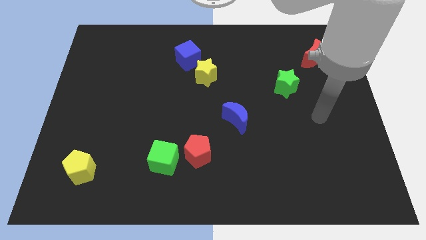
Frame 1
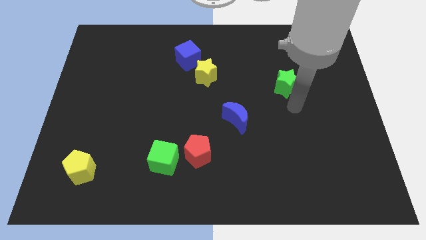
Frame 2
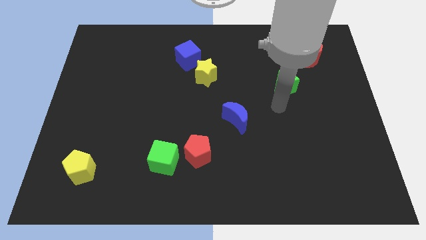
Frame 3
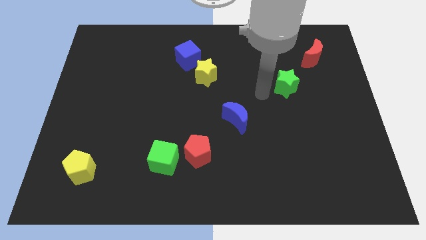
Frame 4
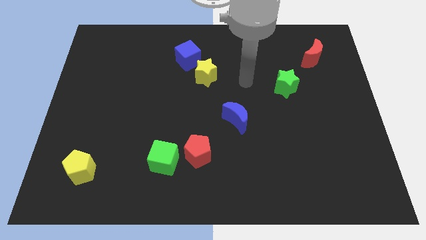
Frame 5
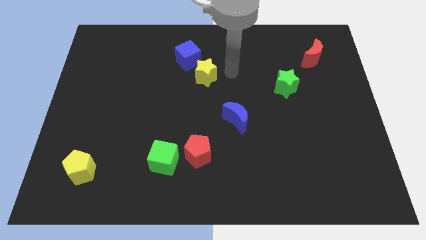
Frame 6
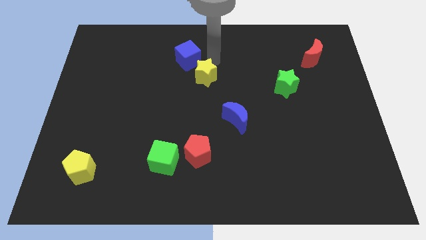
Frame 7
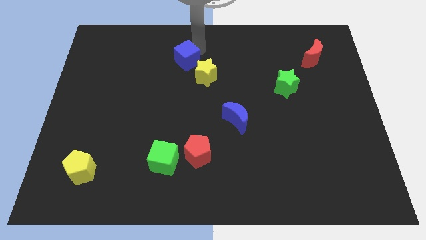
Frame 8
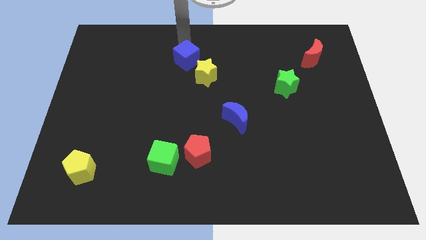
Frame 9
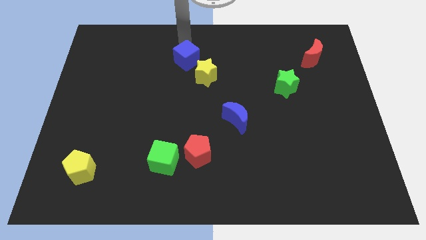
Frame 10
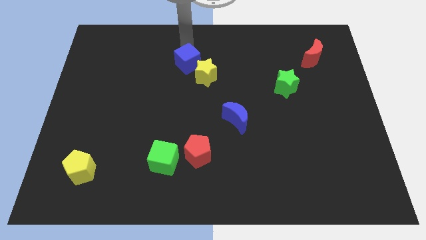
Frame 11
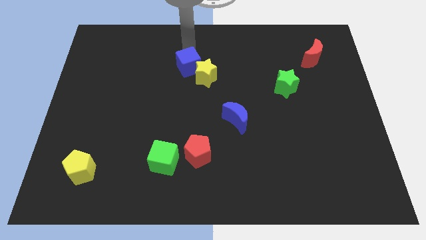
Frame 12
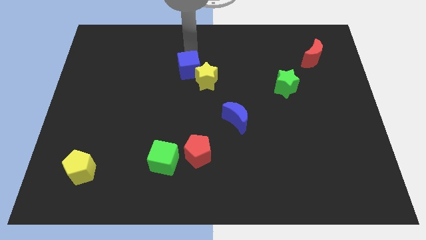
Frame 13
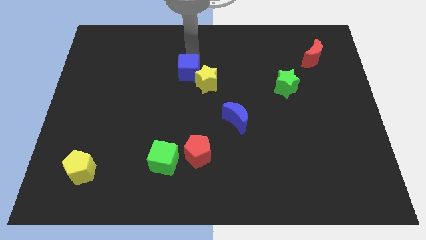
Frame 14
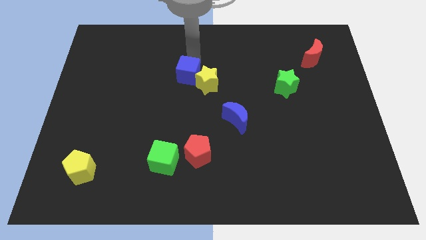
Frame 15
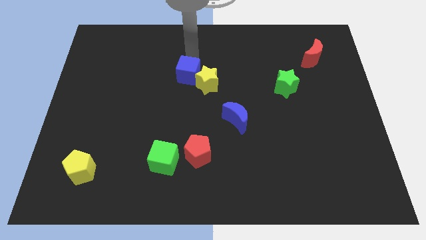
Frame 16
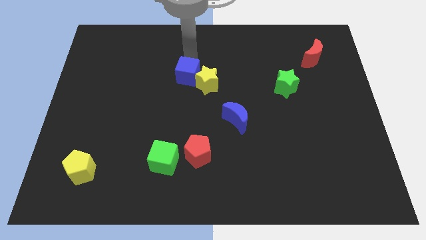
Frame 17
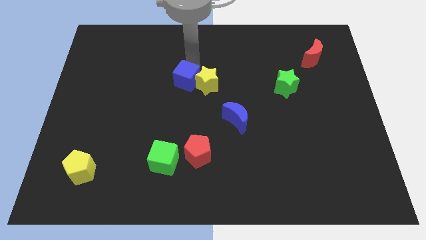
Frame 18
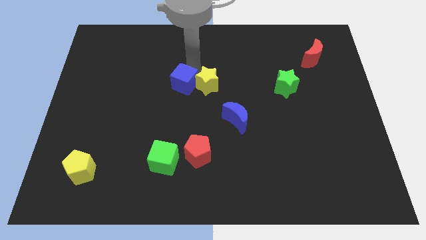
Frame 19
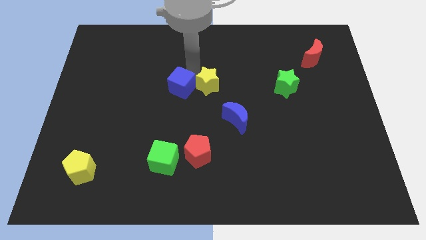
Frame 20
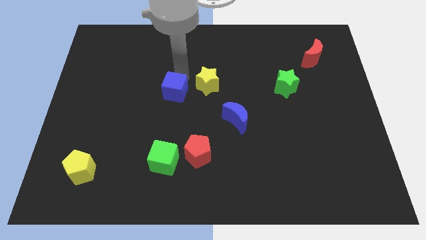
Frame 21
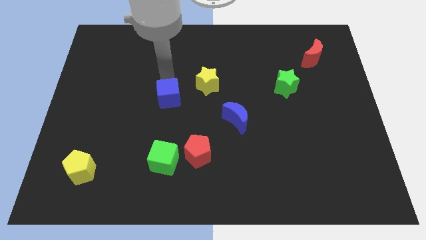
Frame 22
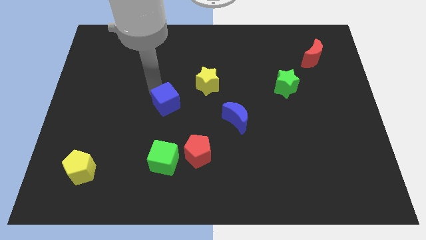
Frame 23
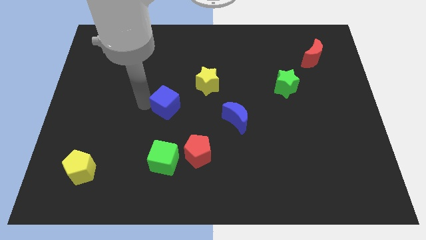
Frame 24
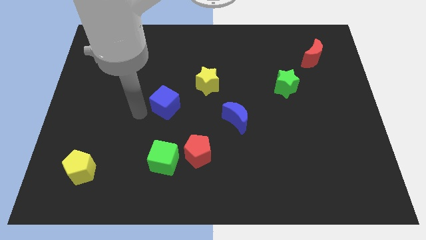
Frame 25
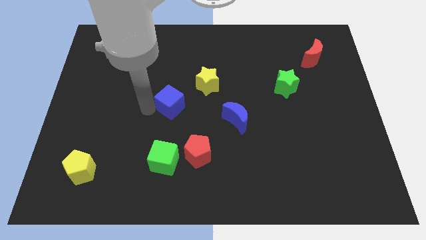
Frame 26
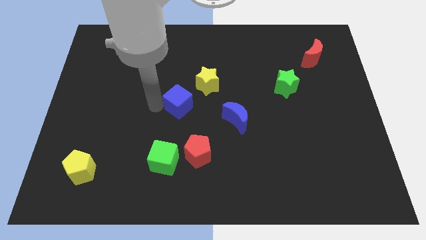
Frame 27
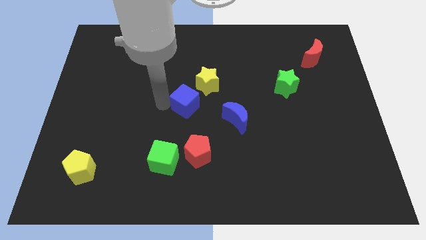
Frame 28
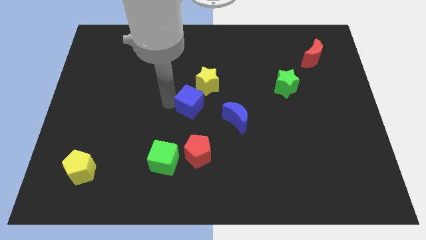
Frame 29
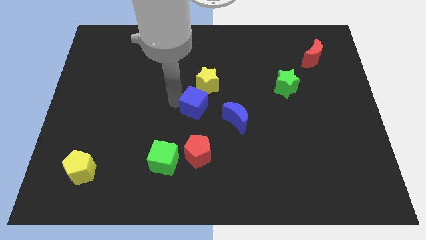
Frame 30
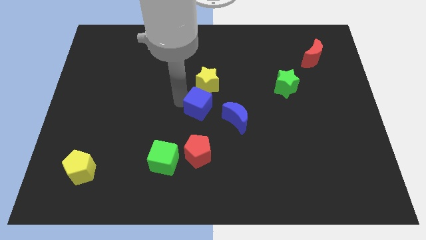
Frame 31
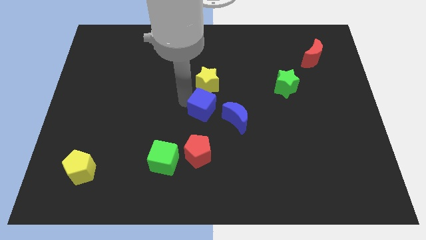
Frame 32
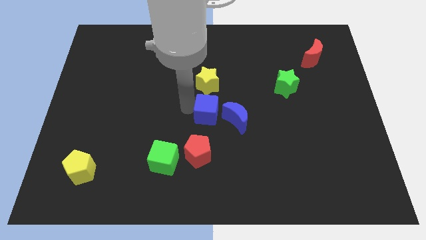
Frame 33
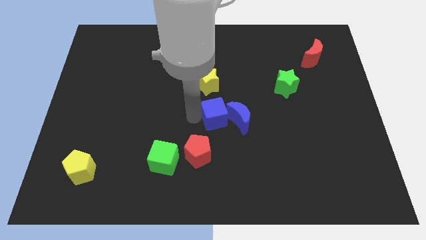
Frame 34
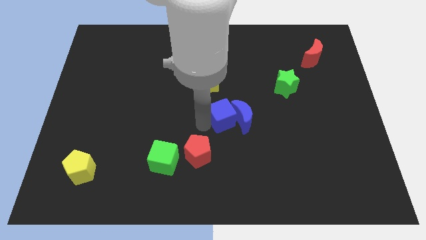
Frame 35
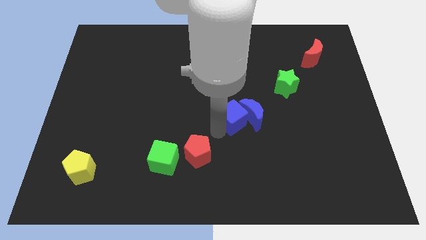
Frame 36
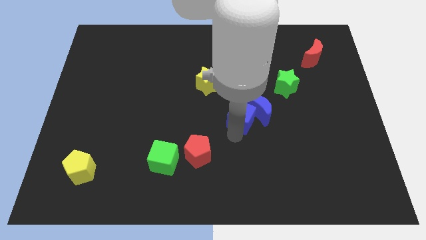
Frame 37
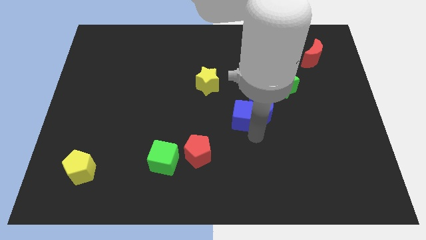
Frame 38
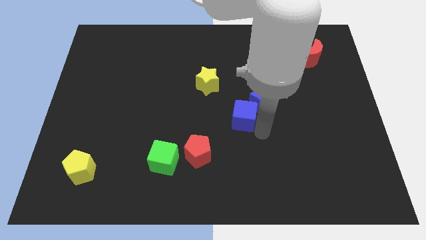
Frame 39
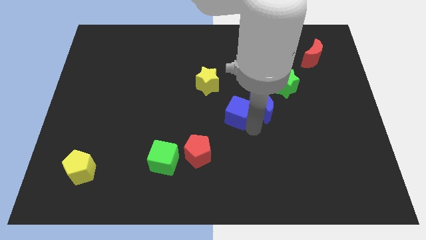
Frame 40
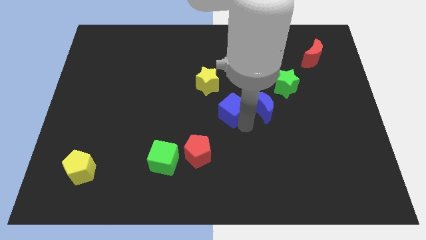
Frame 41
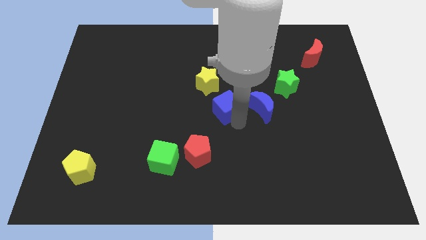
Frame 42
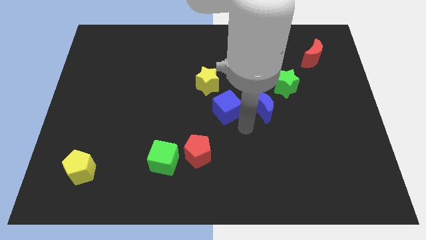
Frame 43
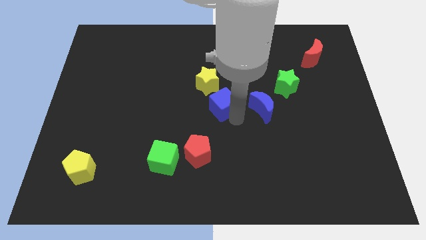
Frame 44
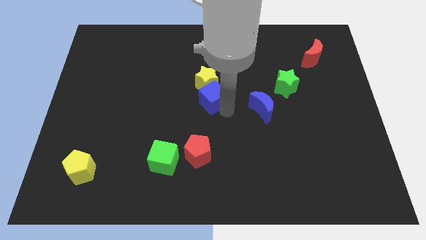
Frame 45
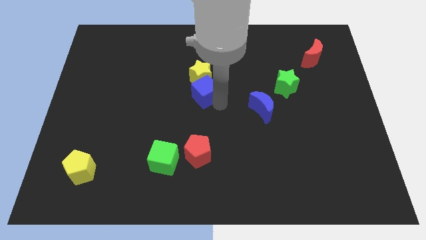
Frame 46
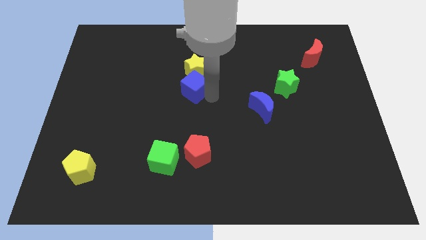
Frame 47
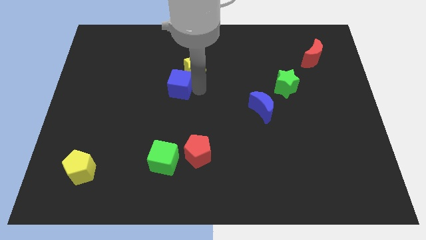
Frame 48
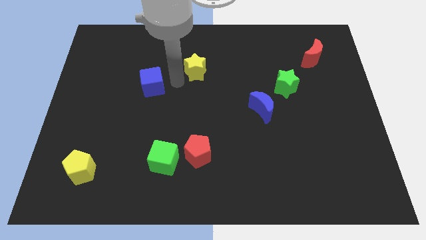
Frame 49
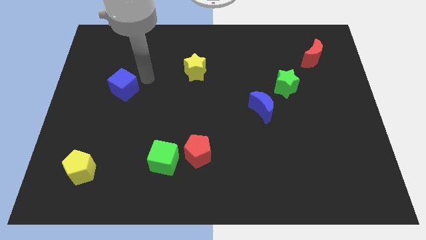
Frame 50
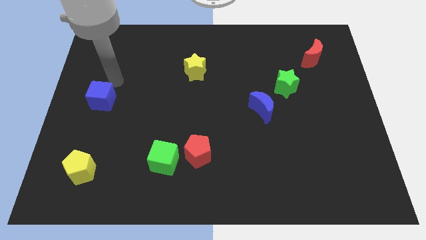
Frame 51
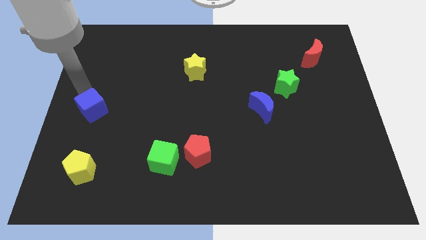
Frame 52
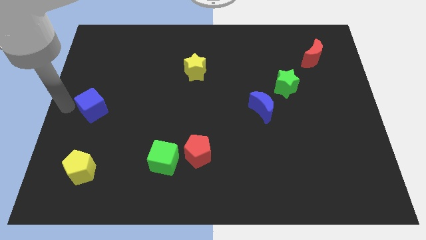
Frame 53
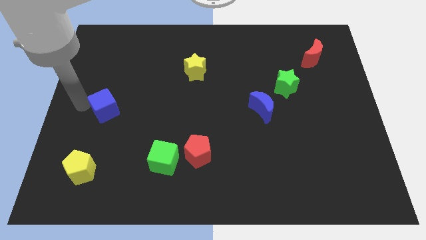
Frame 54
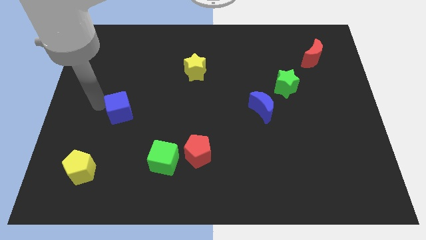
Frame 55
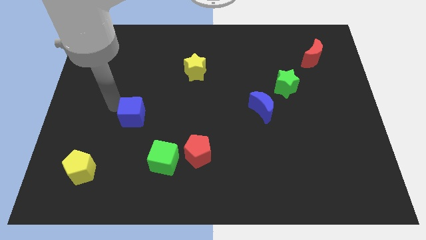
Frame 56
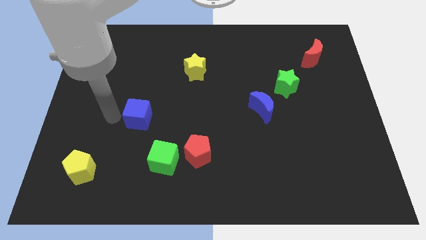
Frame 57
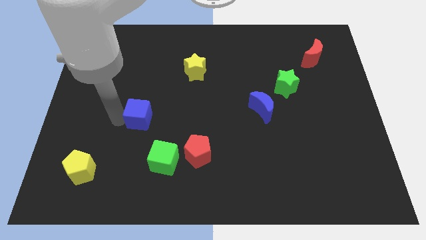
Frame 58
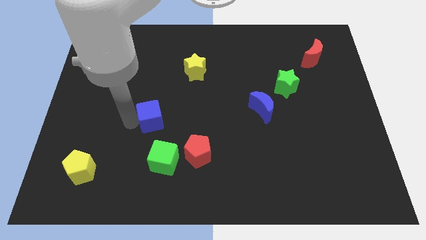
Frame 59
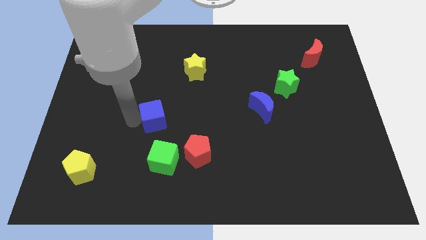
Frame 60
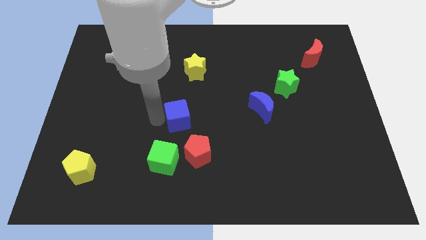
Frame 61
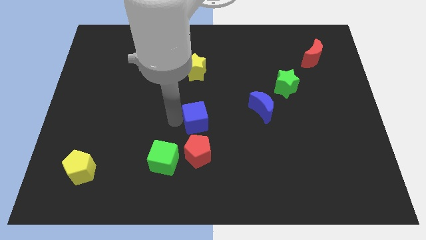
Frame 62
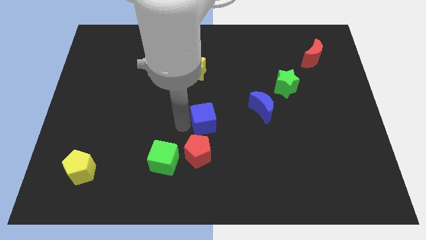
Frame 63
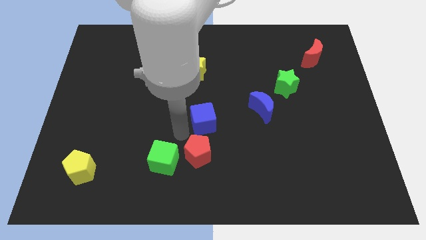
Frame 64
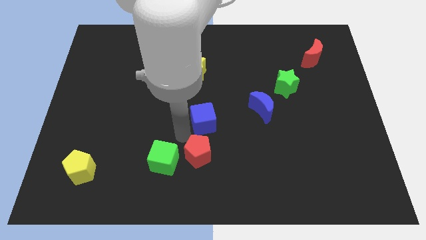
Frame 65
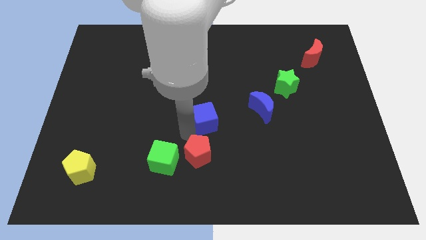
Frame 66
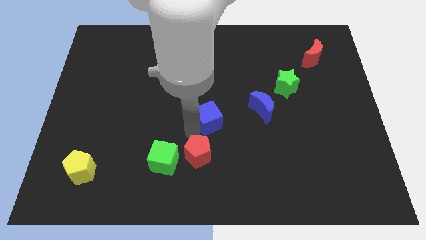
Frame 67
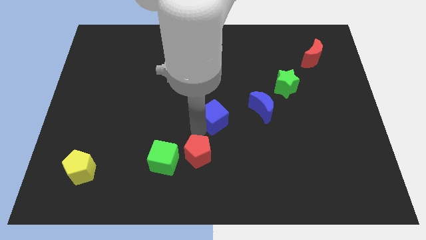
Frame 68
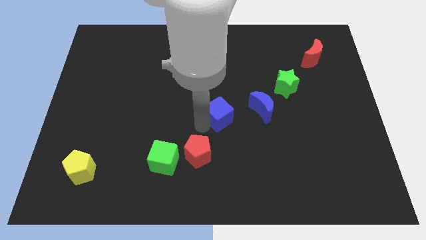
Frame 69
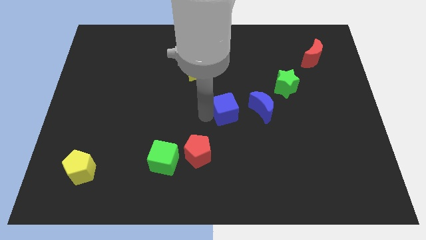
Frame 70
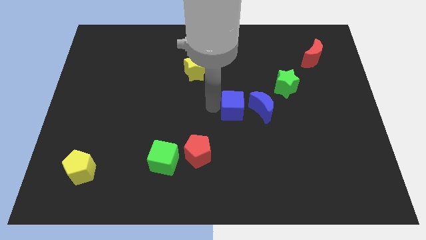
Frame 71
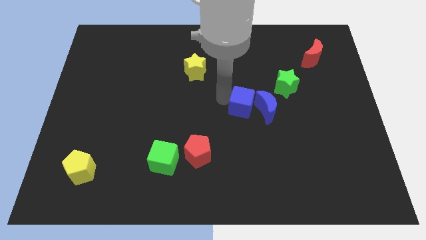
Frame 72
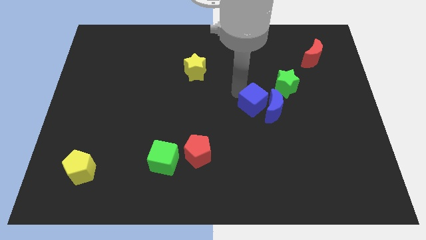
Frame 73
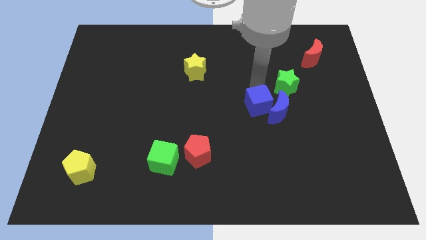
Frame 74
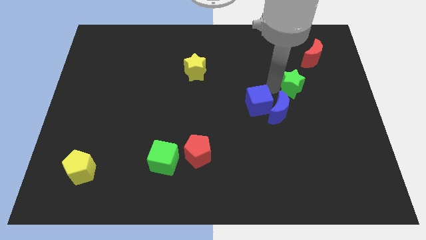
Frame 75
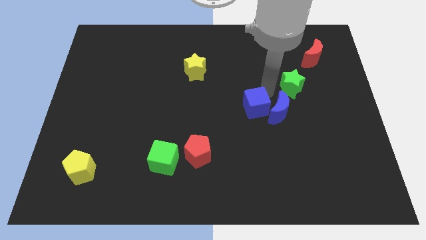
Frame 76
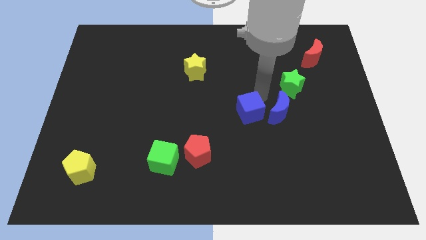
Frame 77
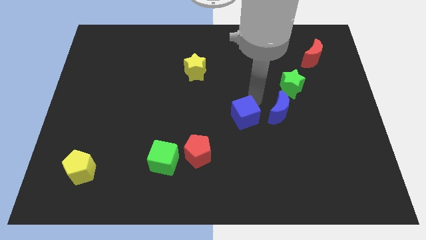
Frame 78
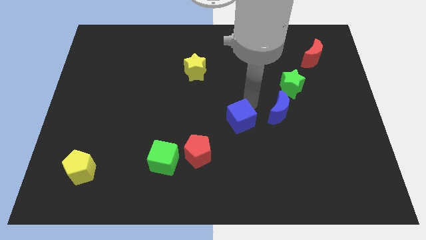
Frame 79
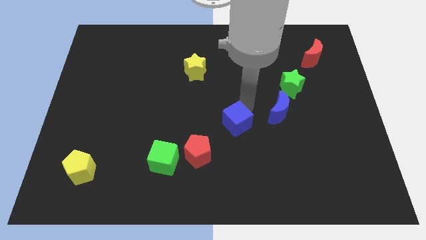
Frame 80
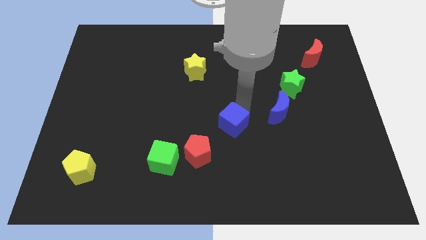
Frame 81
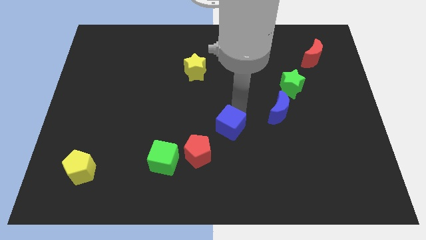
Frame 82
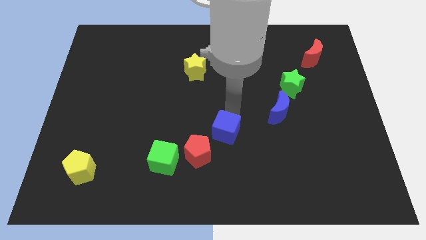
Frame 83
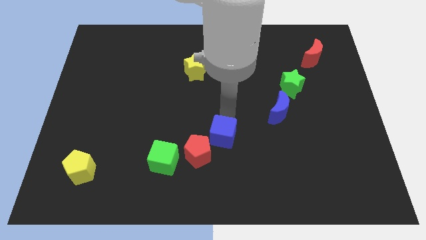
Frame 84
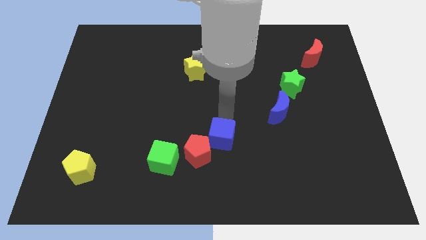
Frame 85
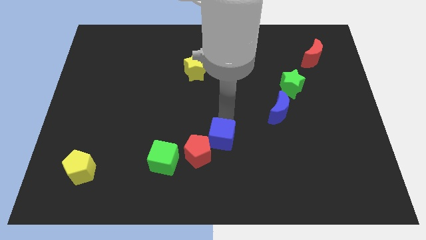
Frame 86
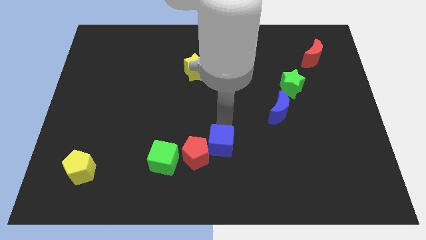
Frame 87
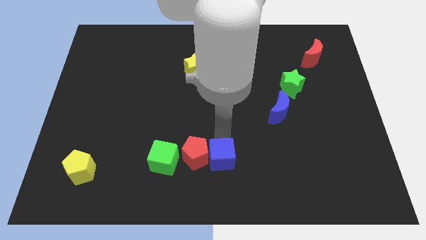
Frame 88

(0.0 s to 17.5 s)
move the blue cube to the bottom side
